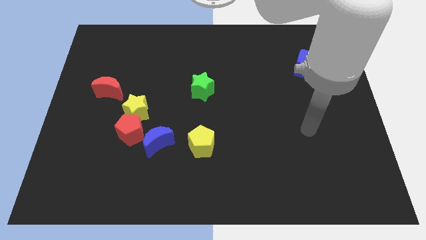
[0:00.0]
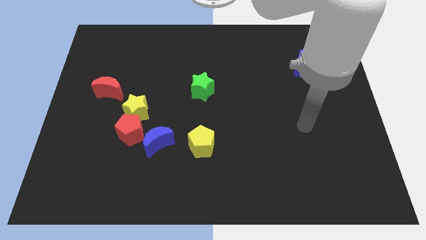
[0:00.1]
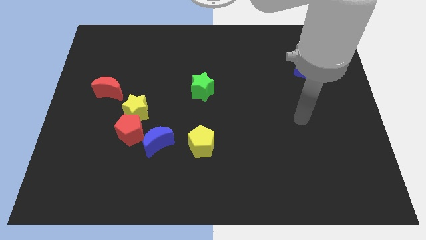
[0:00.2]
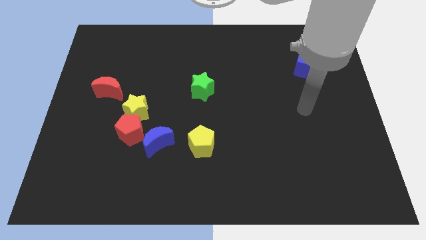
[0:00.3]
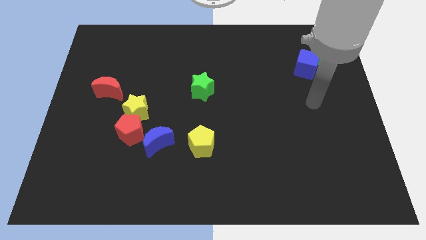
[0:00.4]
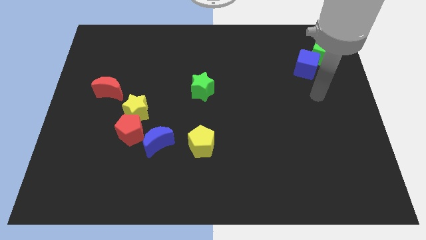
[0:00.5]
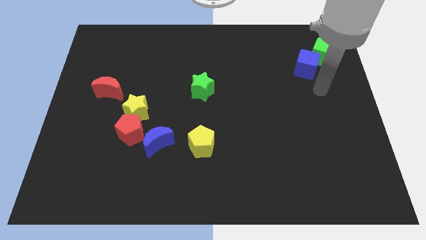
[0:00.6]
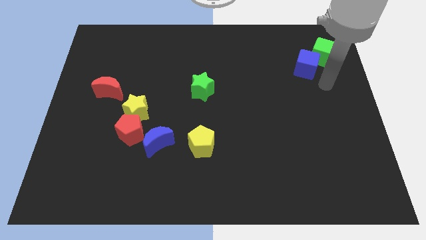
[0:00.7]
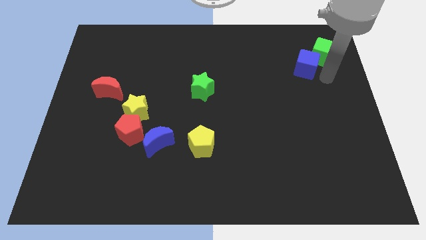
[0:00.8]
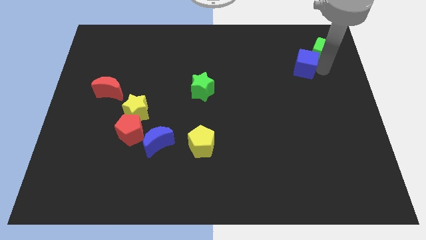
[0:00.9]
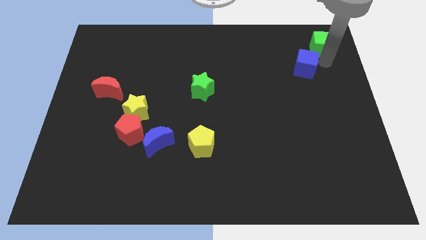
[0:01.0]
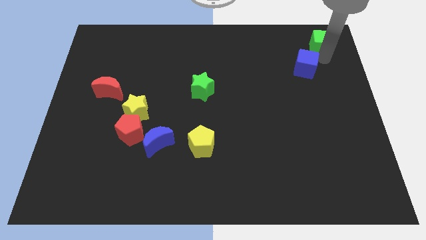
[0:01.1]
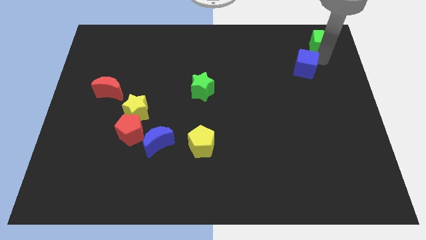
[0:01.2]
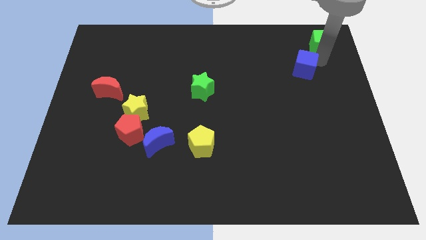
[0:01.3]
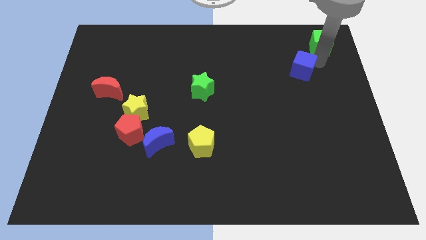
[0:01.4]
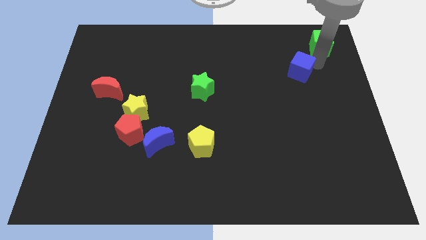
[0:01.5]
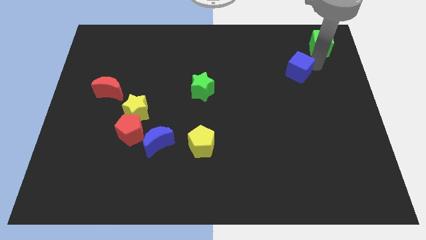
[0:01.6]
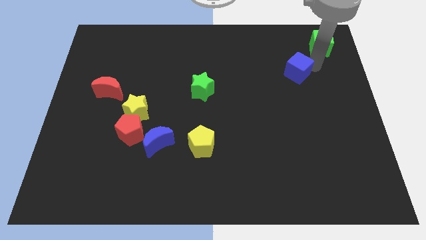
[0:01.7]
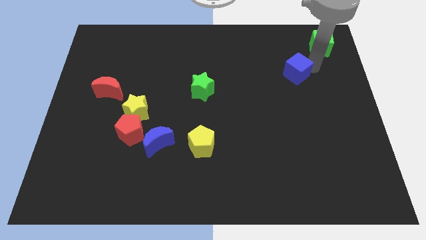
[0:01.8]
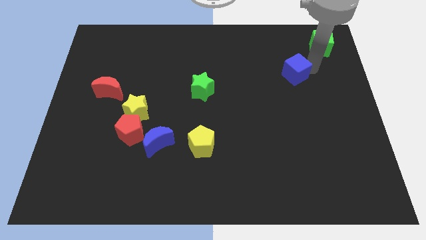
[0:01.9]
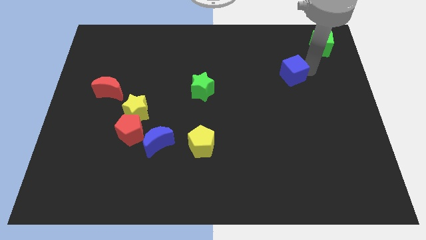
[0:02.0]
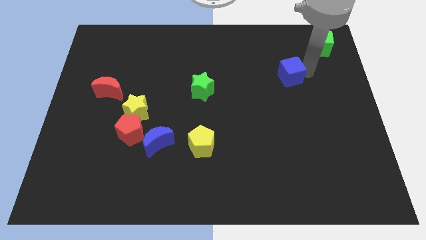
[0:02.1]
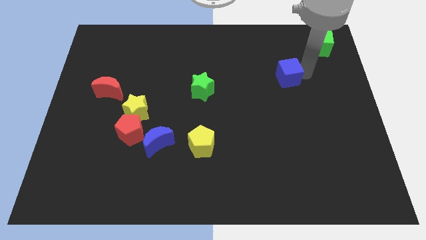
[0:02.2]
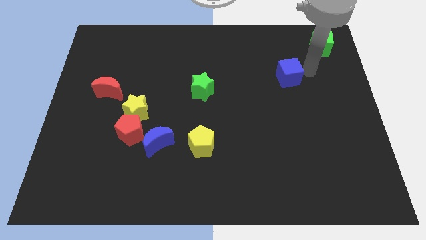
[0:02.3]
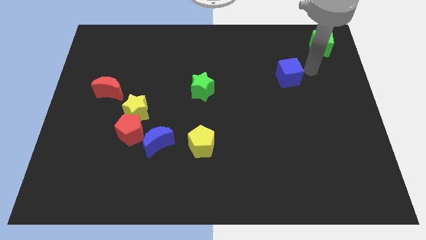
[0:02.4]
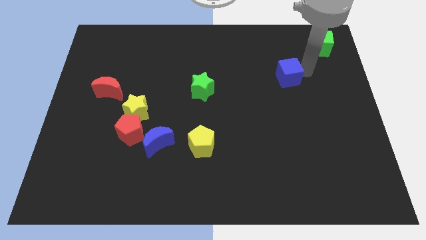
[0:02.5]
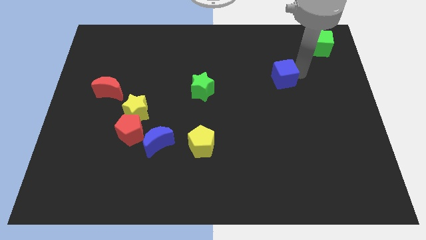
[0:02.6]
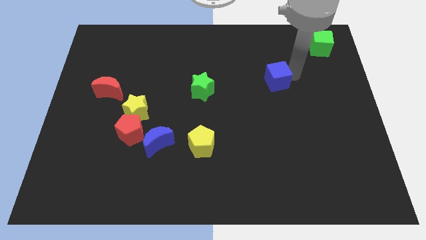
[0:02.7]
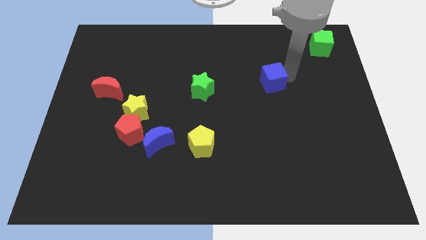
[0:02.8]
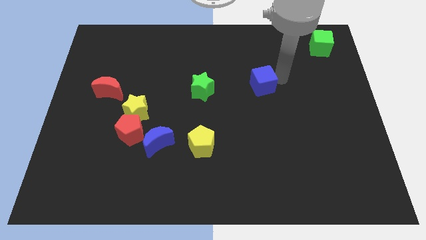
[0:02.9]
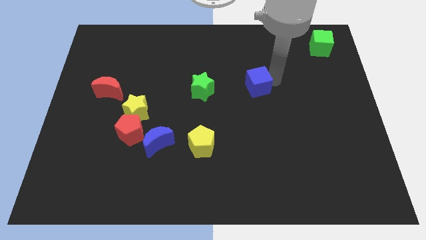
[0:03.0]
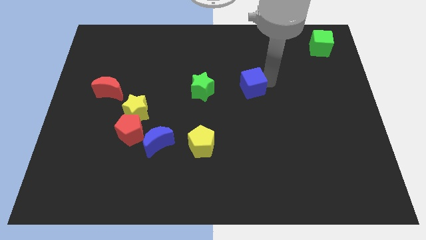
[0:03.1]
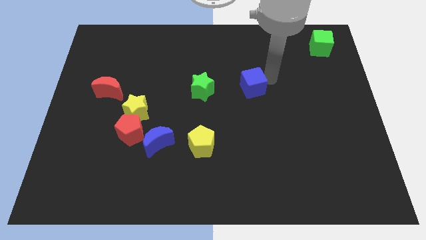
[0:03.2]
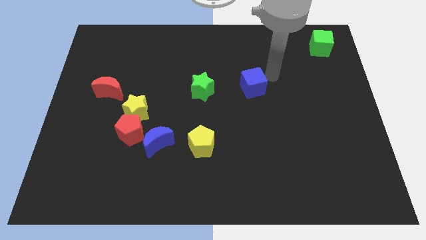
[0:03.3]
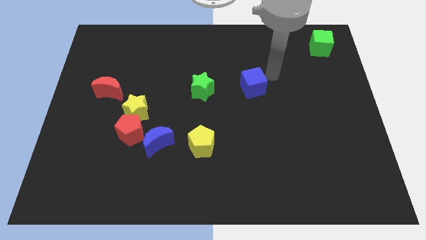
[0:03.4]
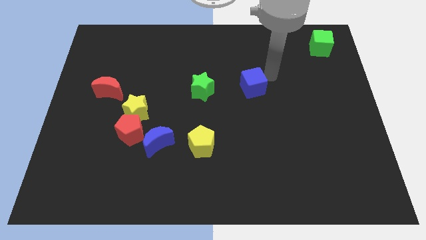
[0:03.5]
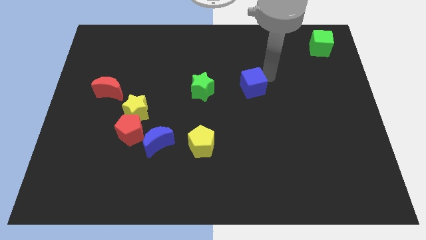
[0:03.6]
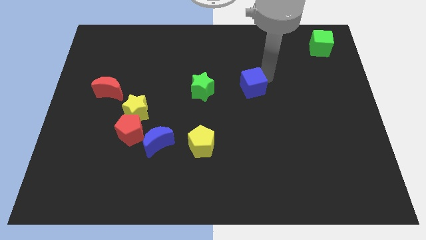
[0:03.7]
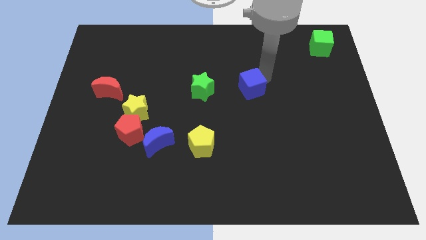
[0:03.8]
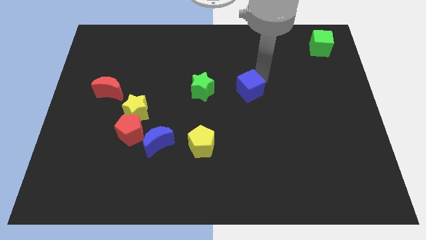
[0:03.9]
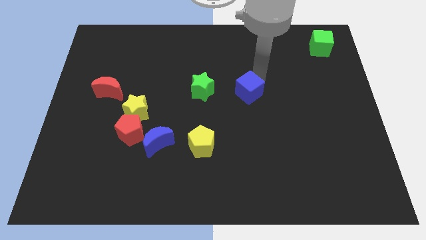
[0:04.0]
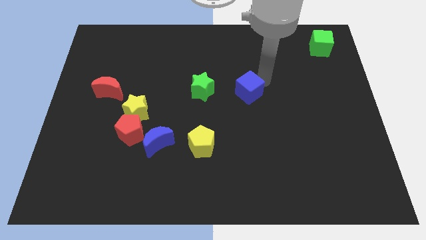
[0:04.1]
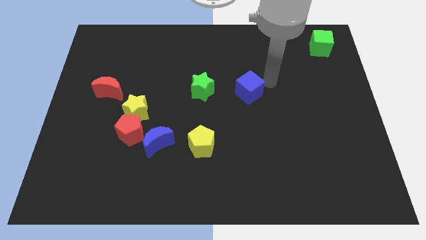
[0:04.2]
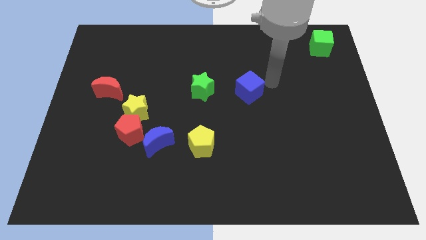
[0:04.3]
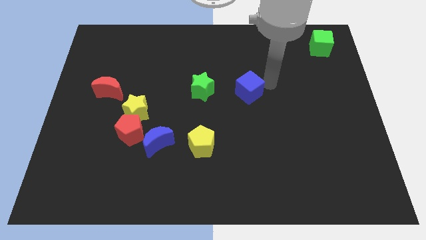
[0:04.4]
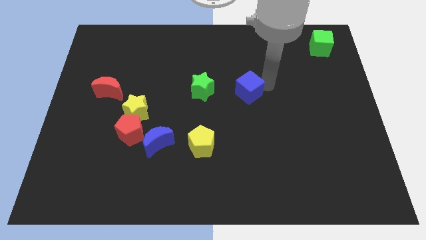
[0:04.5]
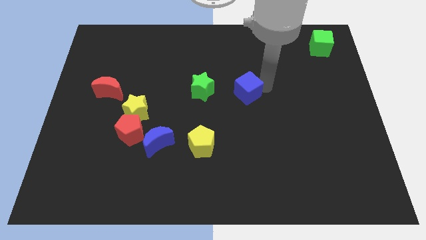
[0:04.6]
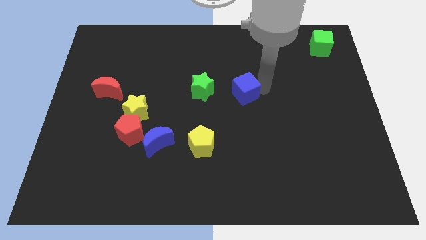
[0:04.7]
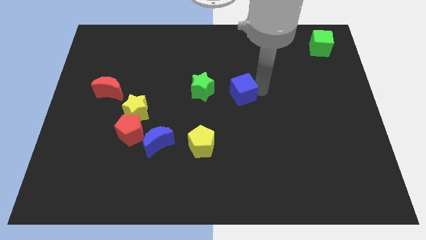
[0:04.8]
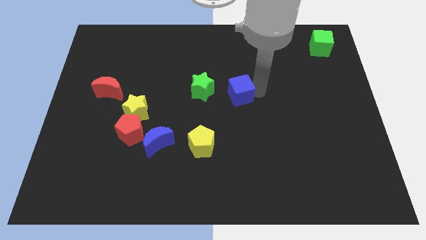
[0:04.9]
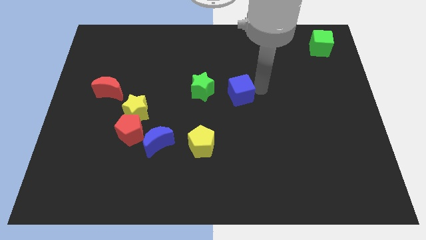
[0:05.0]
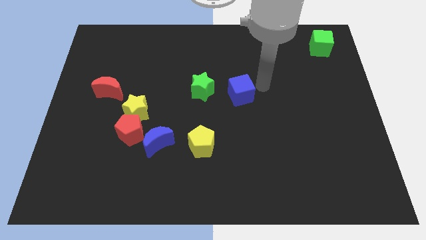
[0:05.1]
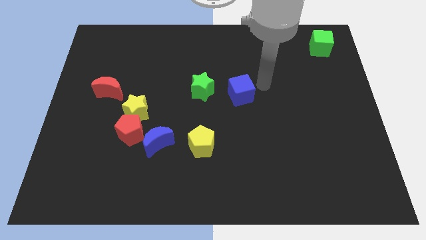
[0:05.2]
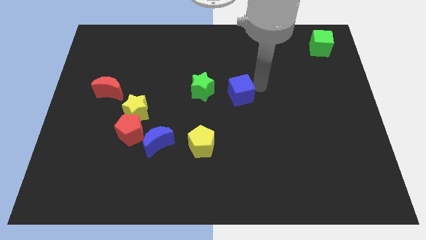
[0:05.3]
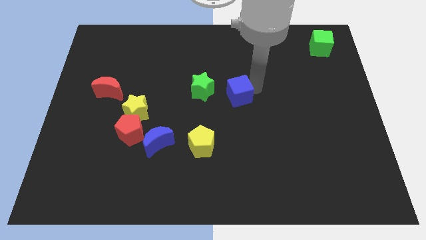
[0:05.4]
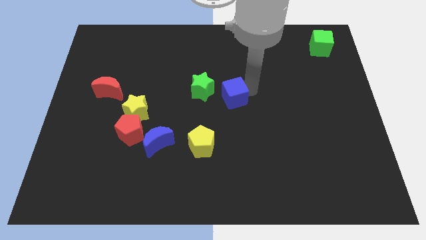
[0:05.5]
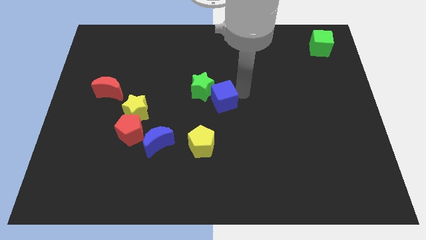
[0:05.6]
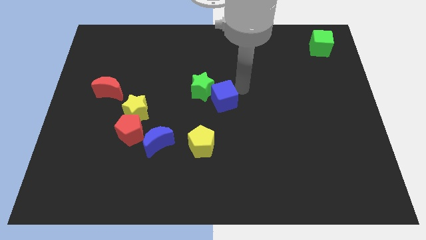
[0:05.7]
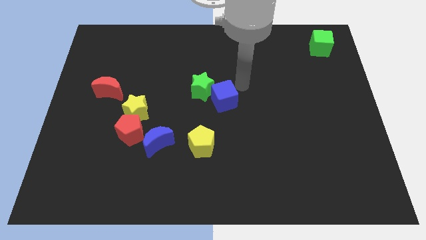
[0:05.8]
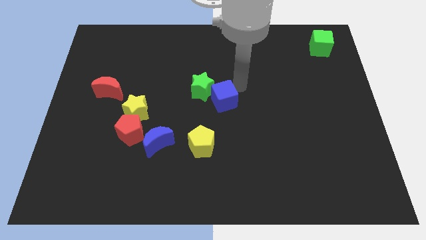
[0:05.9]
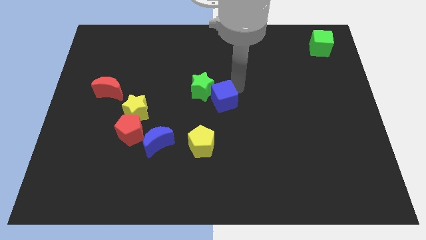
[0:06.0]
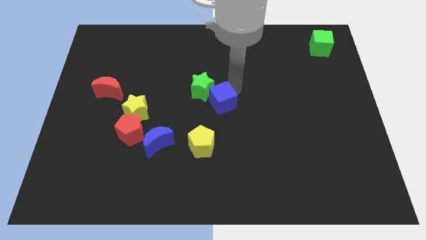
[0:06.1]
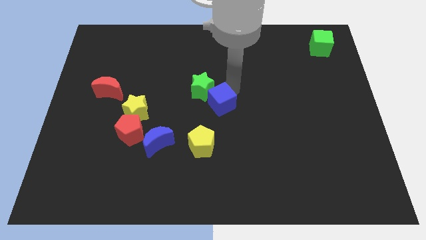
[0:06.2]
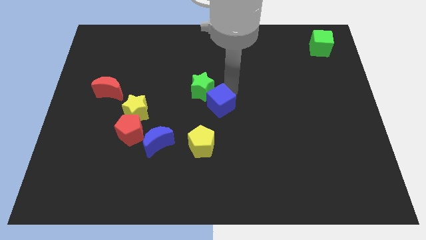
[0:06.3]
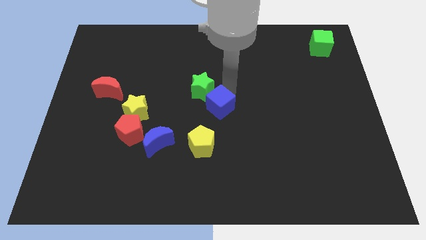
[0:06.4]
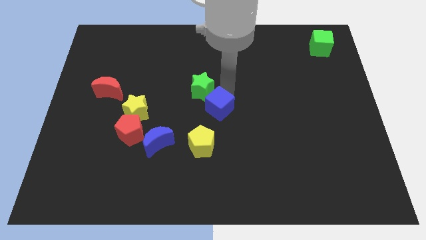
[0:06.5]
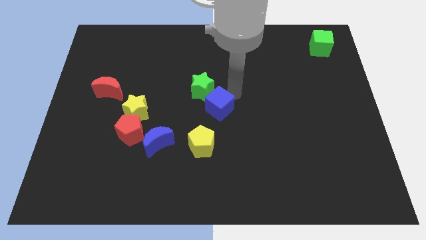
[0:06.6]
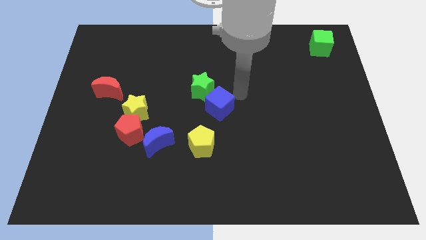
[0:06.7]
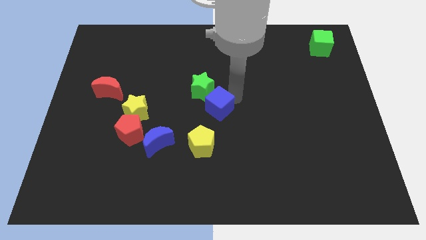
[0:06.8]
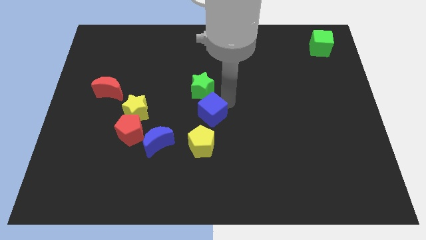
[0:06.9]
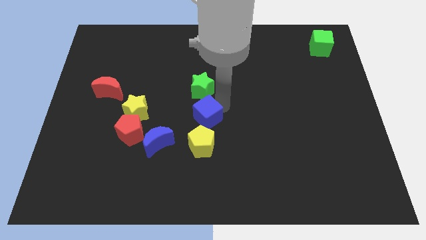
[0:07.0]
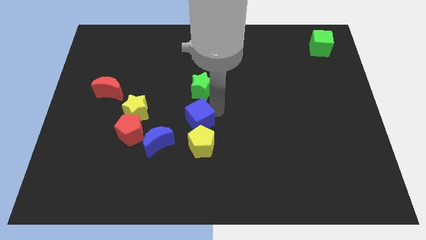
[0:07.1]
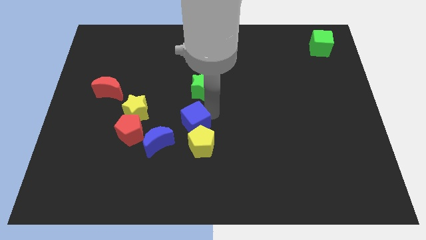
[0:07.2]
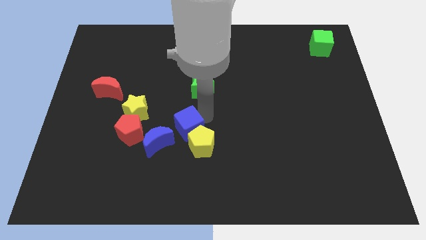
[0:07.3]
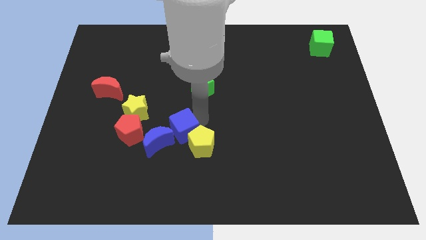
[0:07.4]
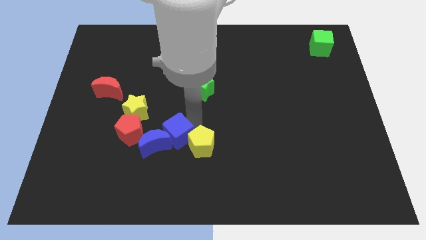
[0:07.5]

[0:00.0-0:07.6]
put the blue cube next to the blue moon
